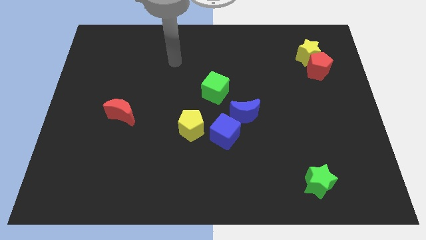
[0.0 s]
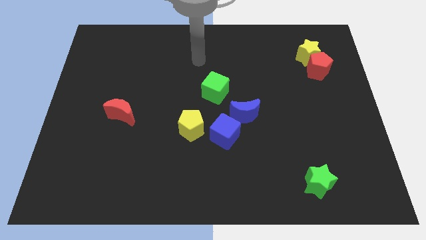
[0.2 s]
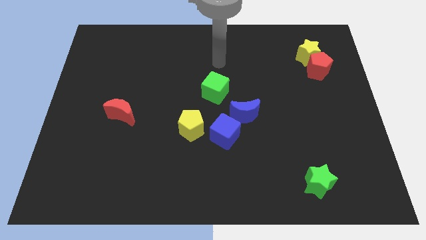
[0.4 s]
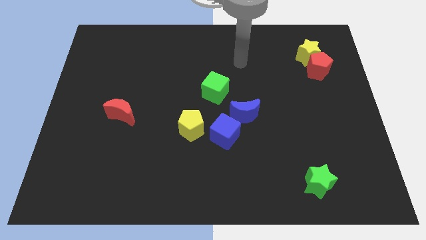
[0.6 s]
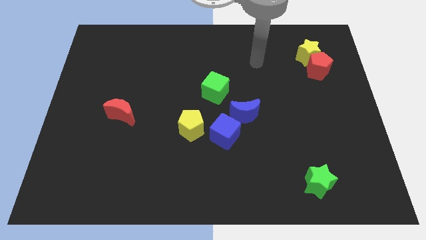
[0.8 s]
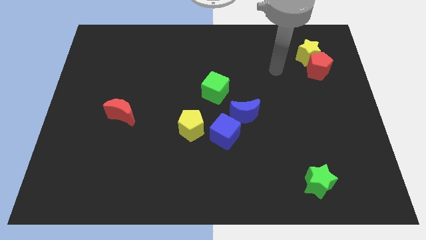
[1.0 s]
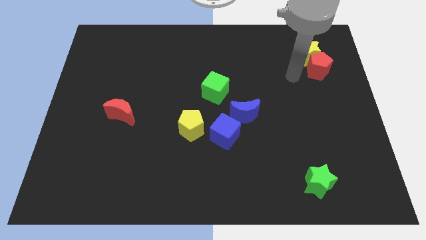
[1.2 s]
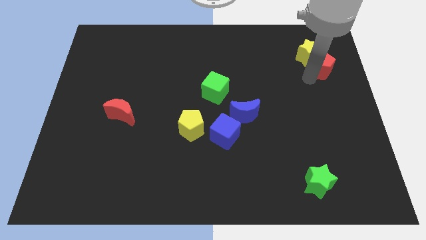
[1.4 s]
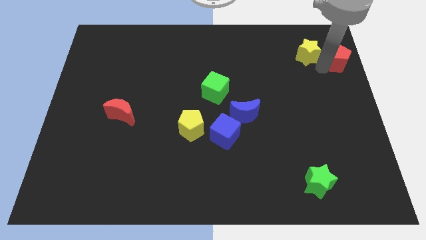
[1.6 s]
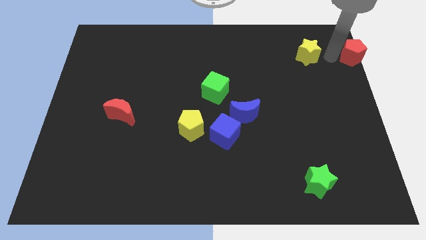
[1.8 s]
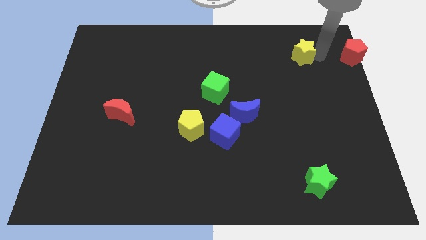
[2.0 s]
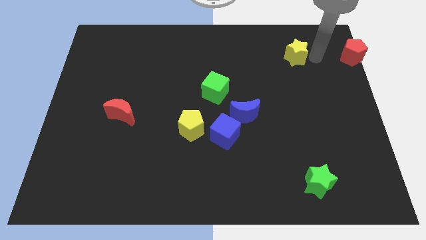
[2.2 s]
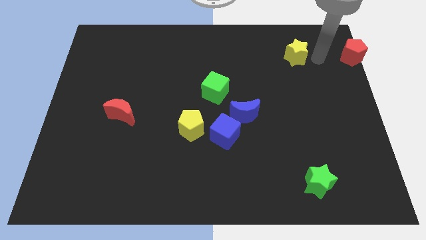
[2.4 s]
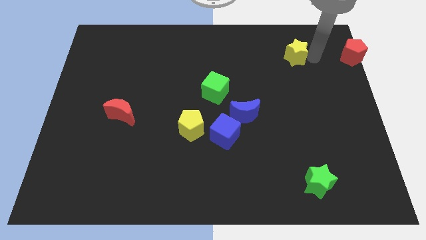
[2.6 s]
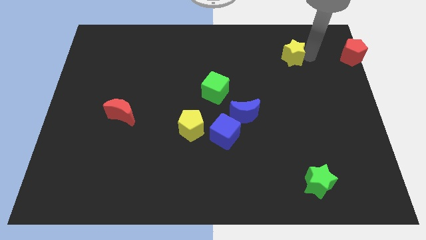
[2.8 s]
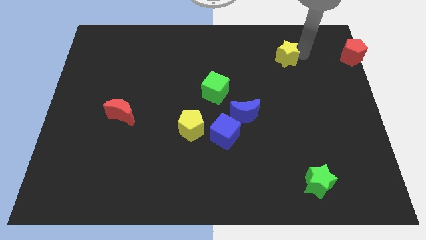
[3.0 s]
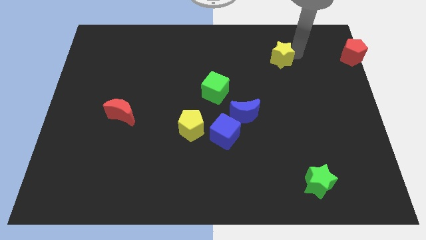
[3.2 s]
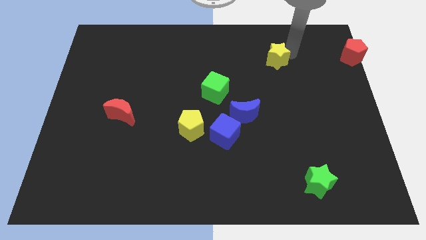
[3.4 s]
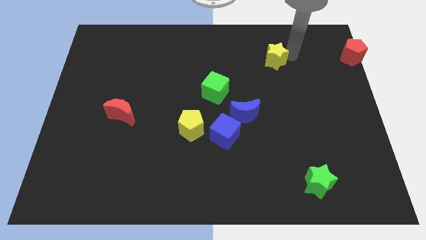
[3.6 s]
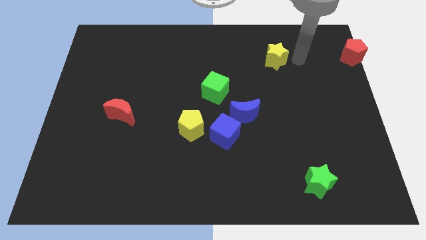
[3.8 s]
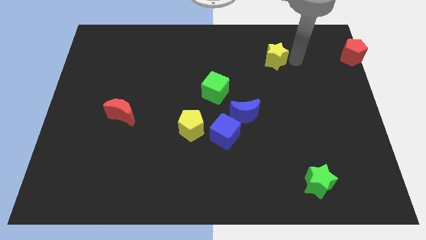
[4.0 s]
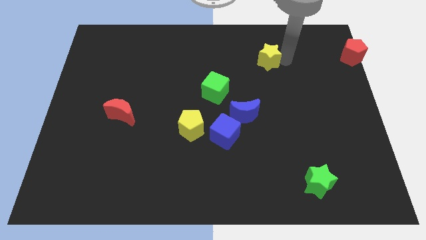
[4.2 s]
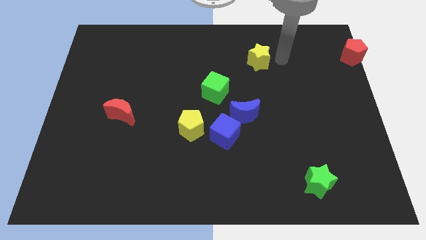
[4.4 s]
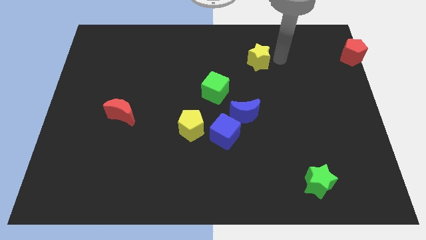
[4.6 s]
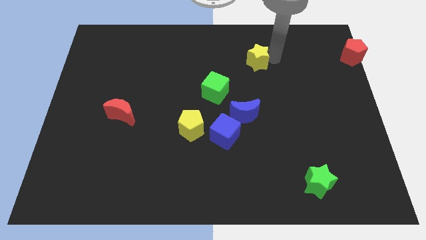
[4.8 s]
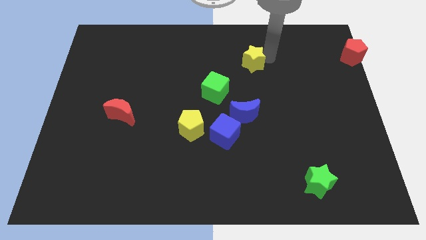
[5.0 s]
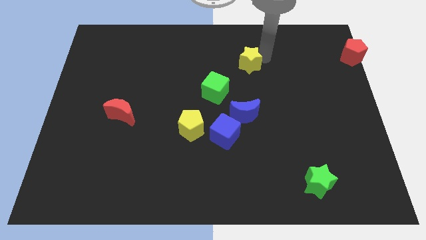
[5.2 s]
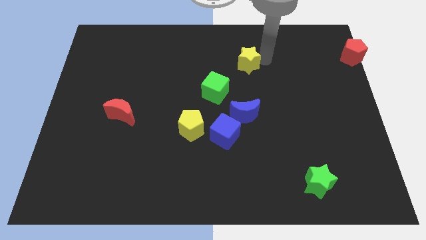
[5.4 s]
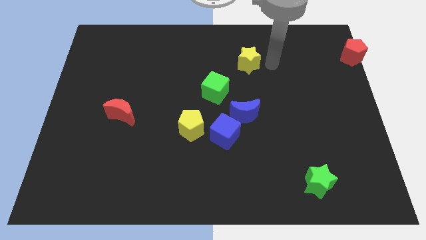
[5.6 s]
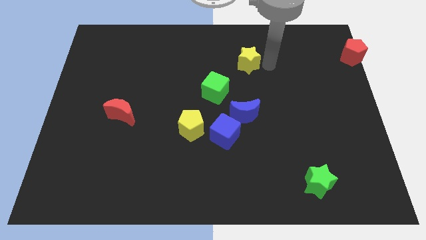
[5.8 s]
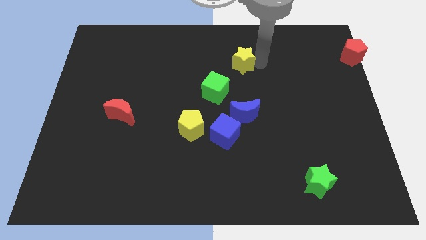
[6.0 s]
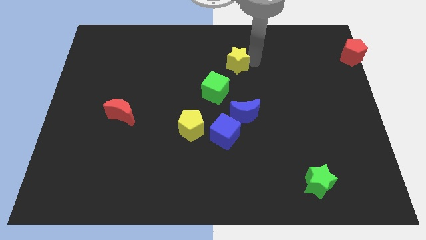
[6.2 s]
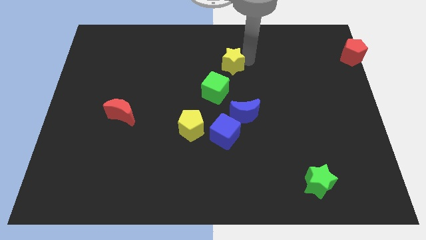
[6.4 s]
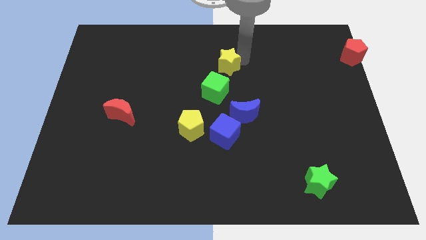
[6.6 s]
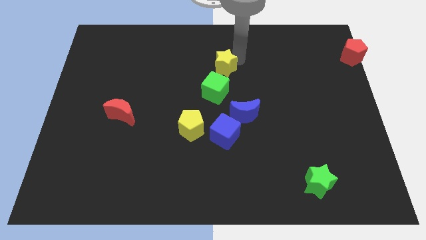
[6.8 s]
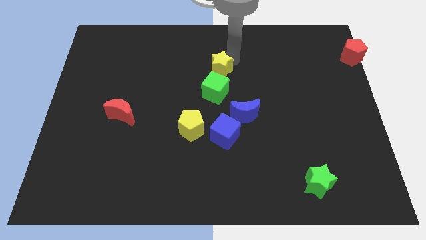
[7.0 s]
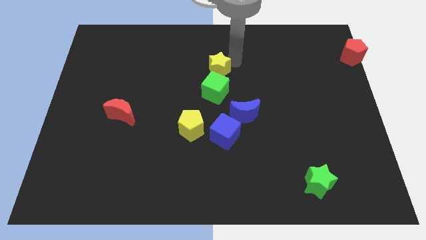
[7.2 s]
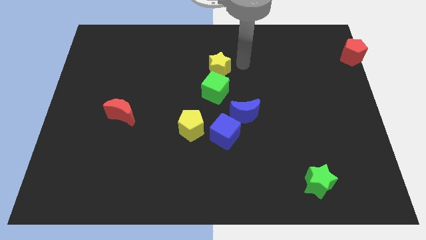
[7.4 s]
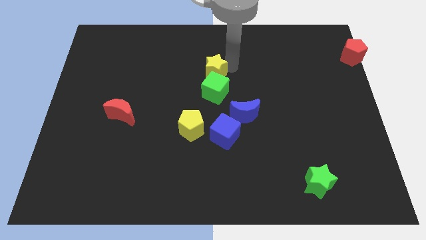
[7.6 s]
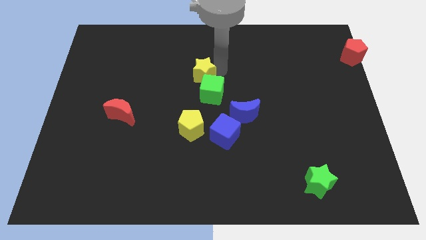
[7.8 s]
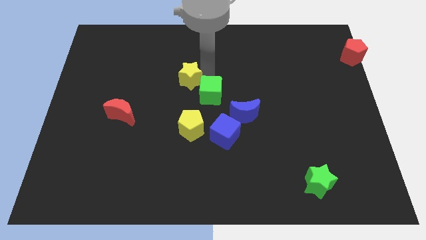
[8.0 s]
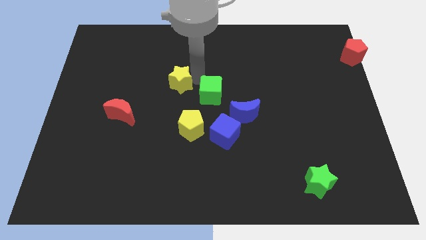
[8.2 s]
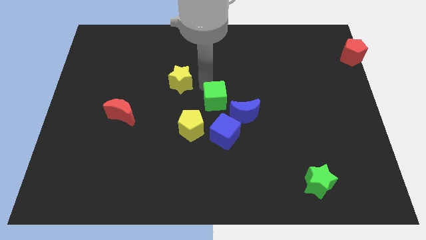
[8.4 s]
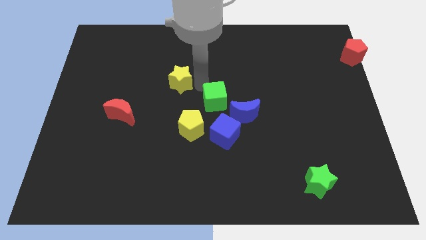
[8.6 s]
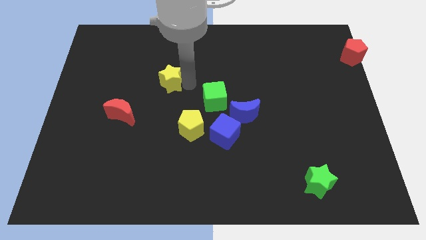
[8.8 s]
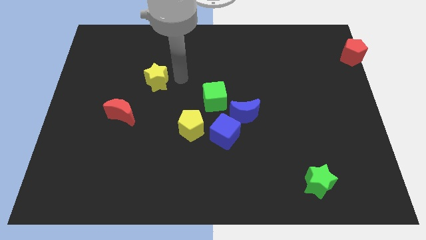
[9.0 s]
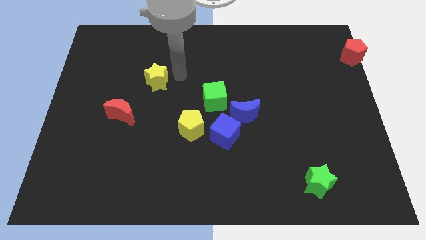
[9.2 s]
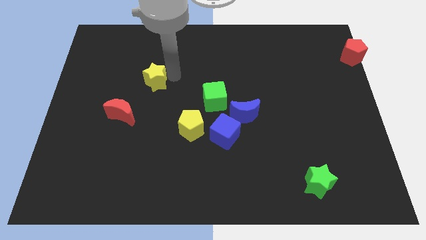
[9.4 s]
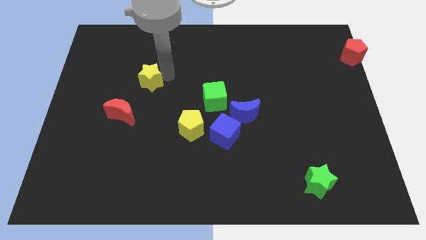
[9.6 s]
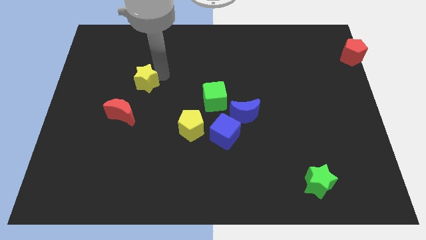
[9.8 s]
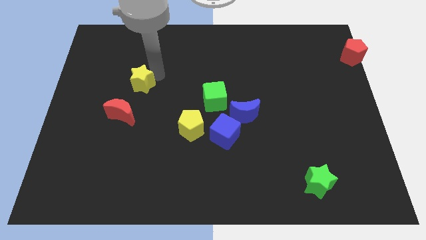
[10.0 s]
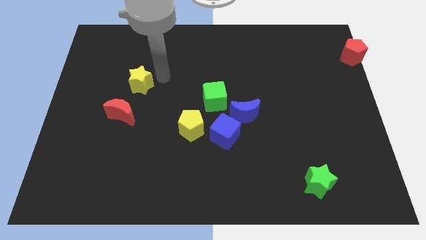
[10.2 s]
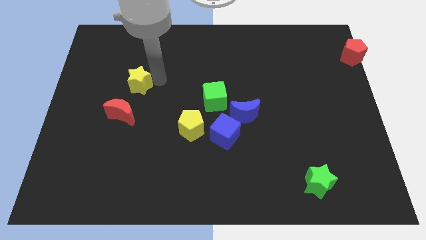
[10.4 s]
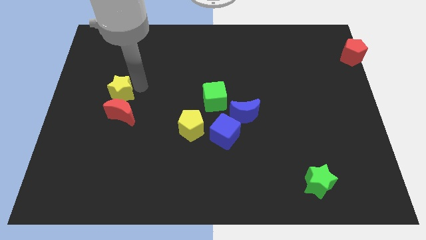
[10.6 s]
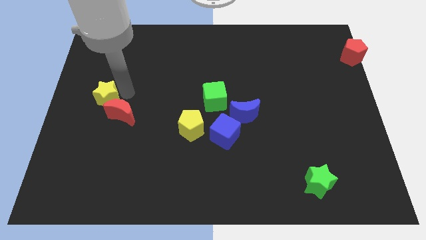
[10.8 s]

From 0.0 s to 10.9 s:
push the yellow star to the left side of the board
